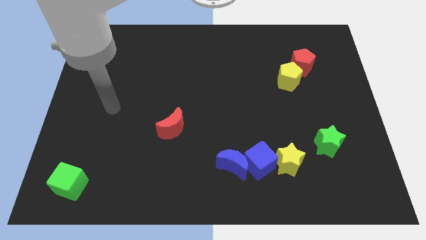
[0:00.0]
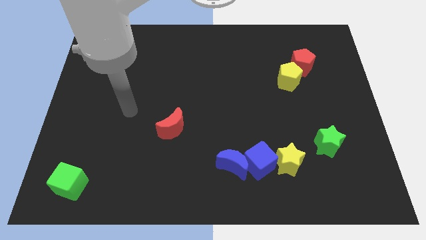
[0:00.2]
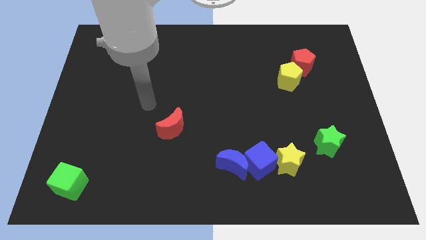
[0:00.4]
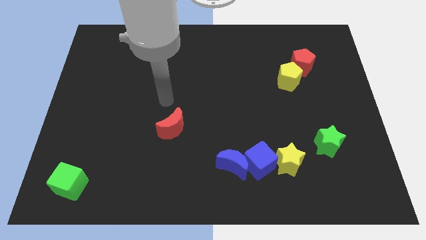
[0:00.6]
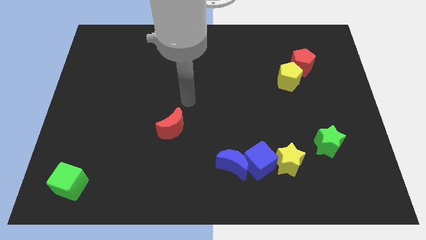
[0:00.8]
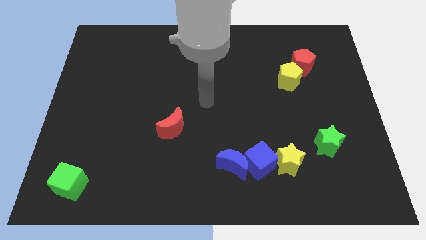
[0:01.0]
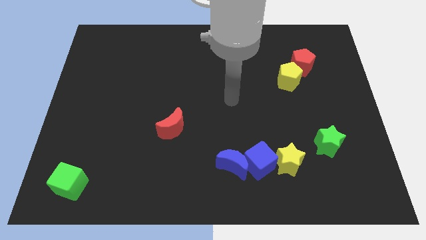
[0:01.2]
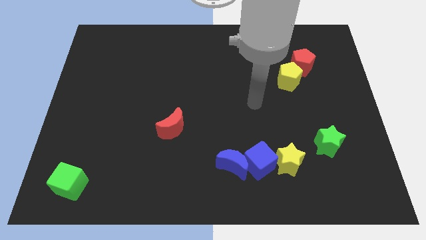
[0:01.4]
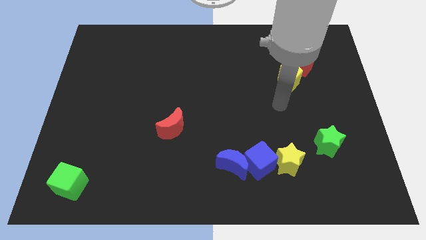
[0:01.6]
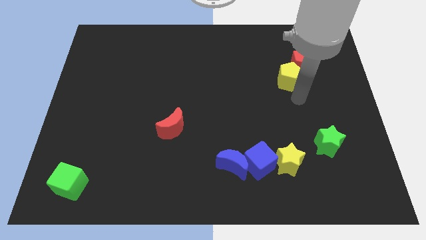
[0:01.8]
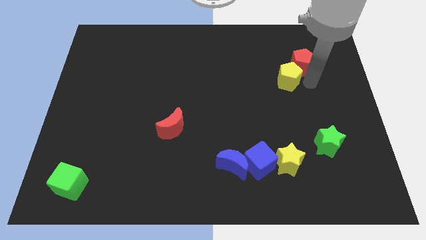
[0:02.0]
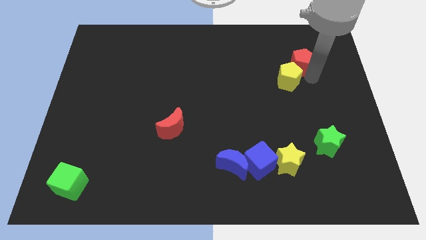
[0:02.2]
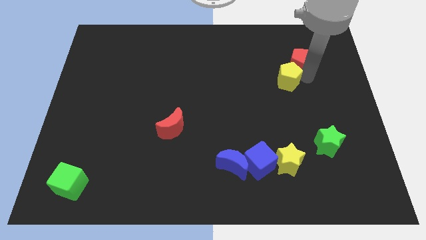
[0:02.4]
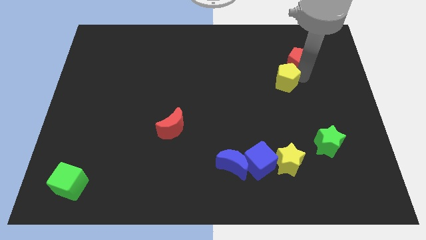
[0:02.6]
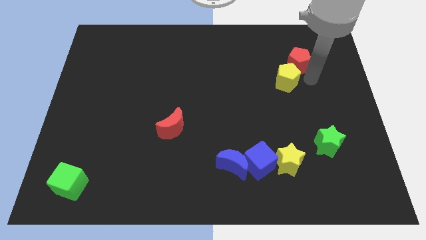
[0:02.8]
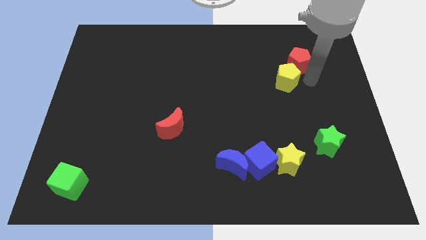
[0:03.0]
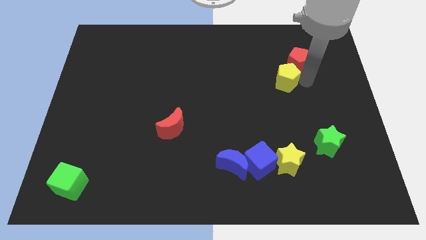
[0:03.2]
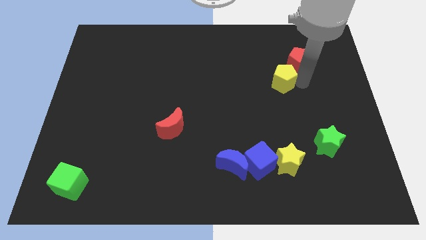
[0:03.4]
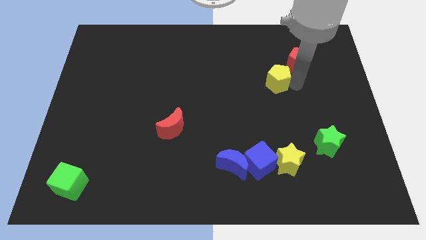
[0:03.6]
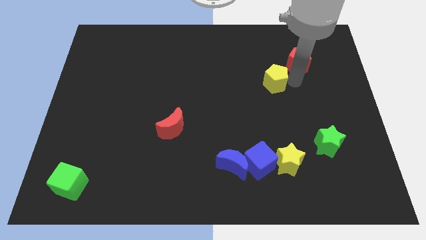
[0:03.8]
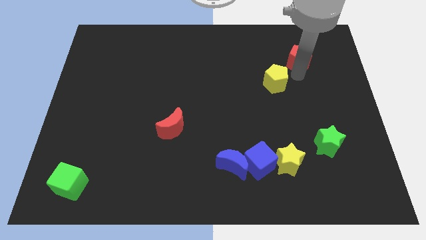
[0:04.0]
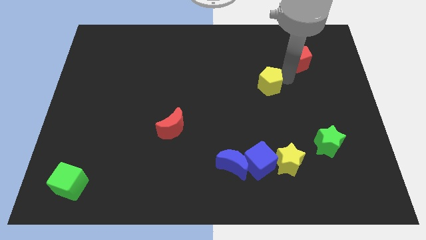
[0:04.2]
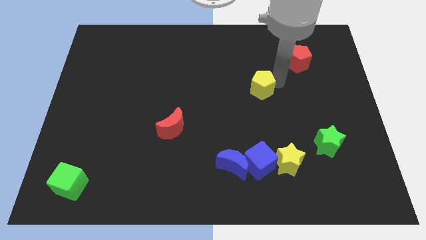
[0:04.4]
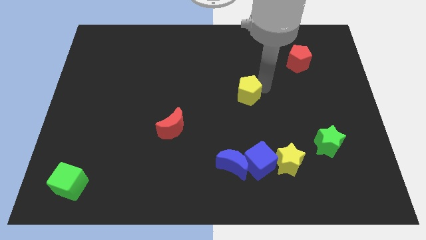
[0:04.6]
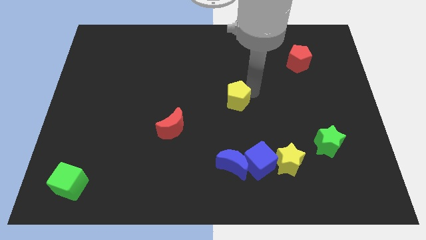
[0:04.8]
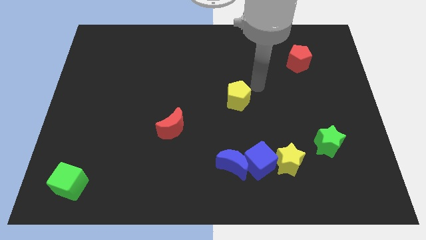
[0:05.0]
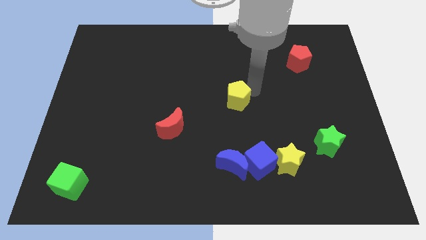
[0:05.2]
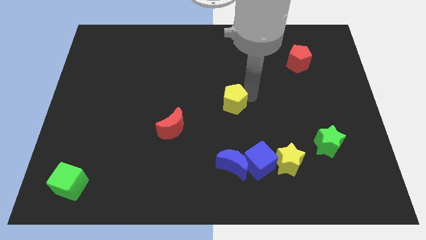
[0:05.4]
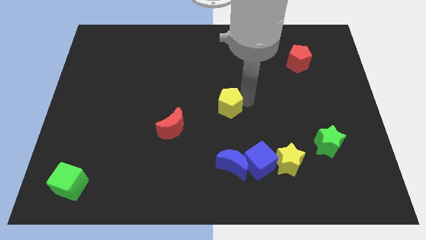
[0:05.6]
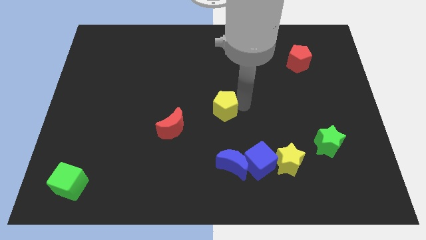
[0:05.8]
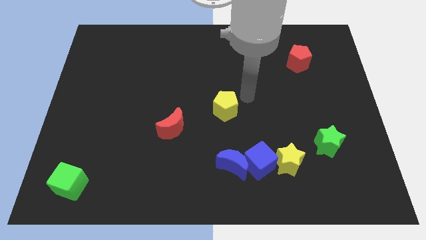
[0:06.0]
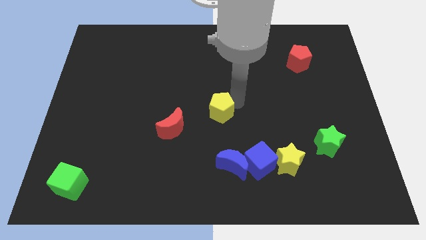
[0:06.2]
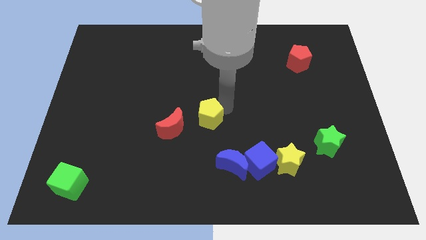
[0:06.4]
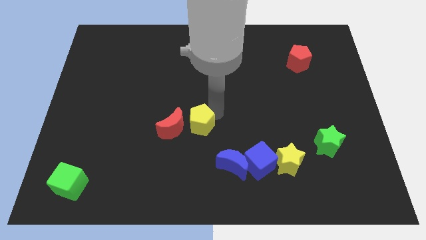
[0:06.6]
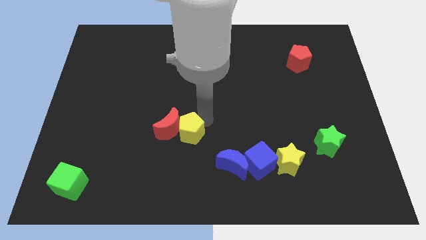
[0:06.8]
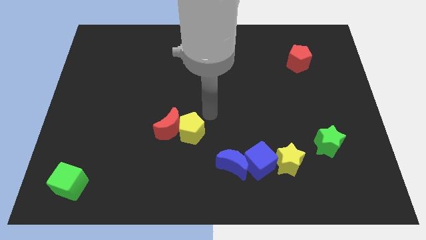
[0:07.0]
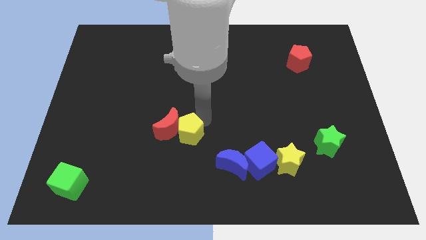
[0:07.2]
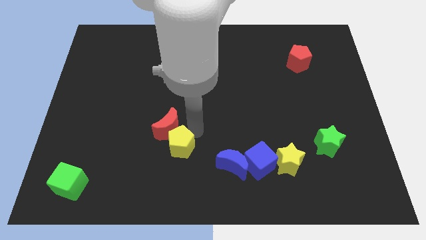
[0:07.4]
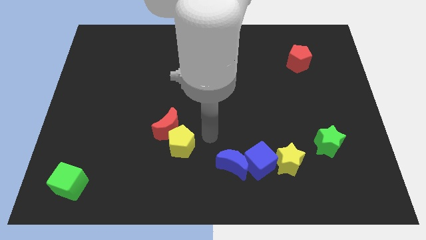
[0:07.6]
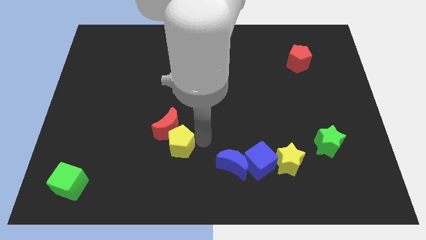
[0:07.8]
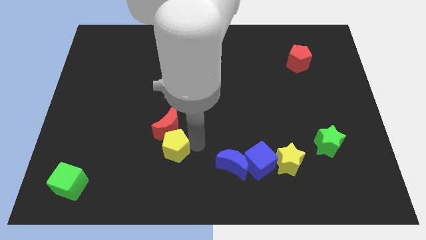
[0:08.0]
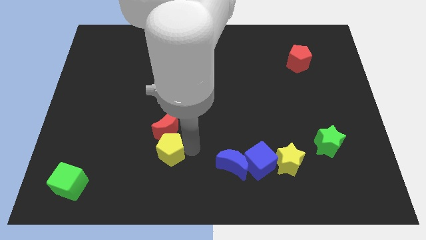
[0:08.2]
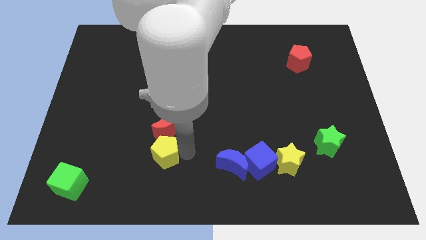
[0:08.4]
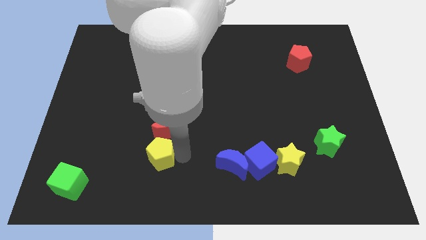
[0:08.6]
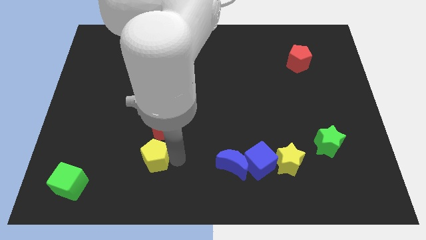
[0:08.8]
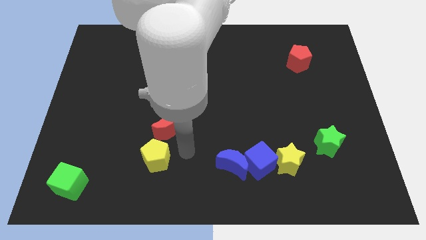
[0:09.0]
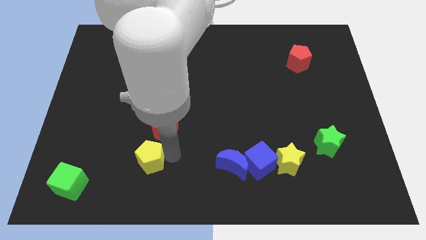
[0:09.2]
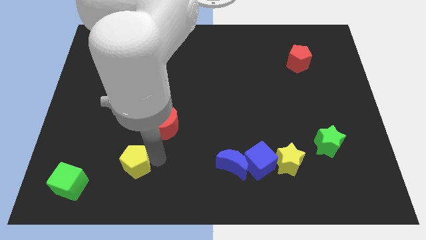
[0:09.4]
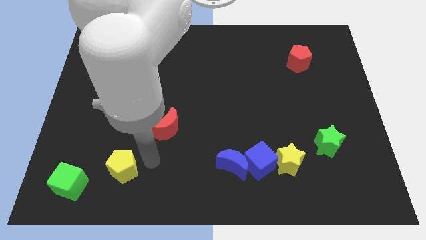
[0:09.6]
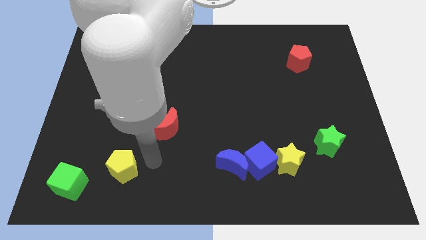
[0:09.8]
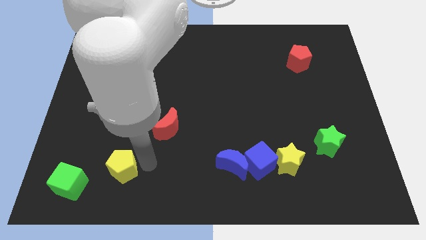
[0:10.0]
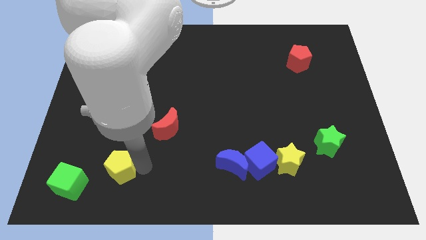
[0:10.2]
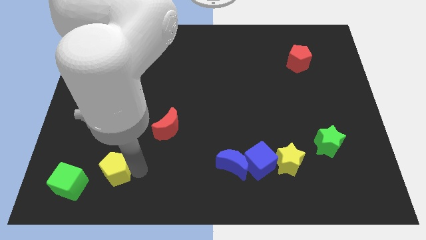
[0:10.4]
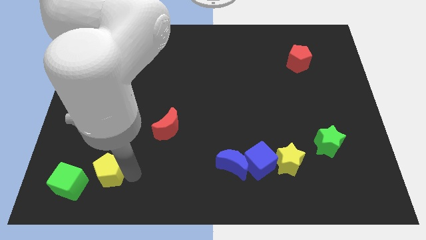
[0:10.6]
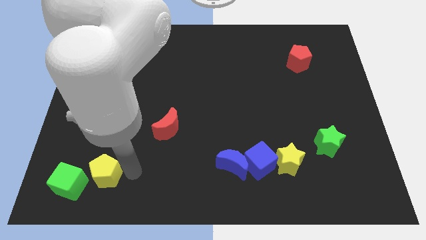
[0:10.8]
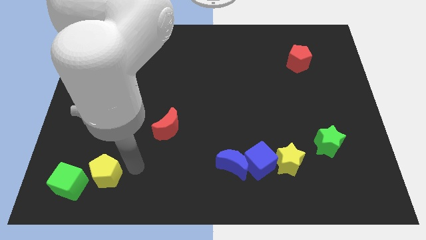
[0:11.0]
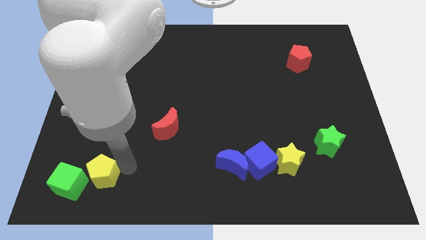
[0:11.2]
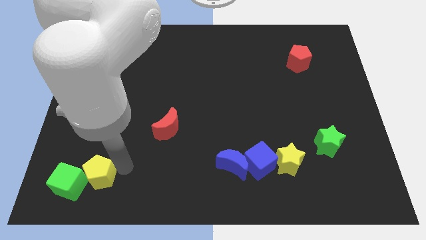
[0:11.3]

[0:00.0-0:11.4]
move the yellow pentagon to the green cube

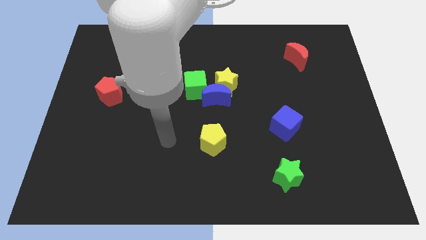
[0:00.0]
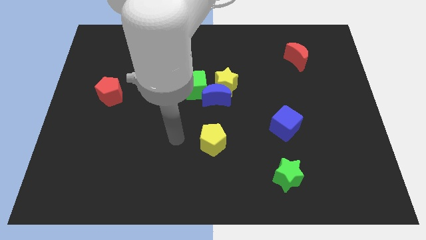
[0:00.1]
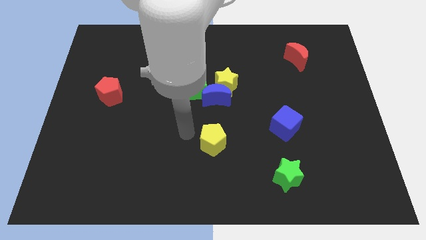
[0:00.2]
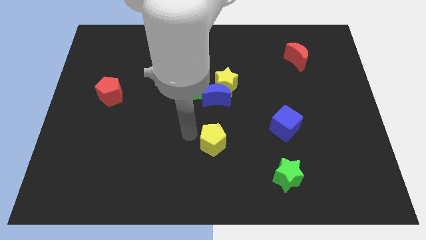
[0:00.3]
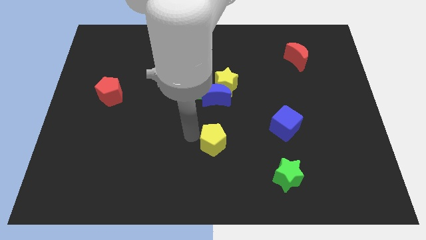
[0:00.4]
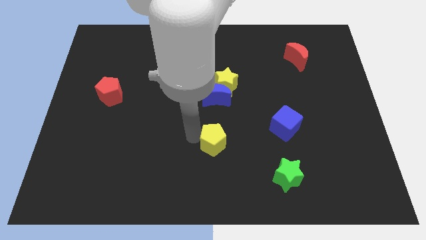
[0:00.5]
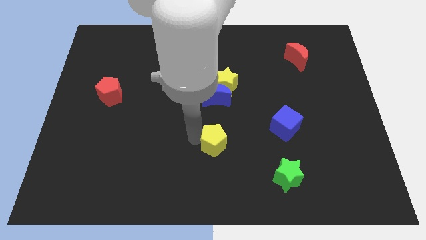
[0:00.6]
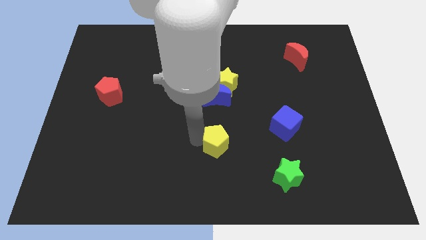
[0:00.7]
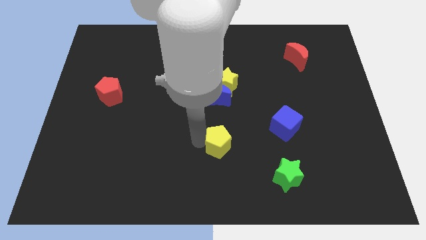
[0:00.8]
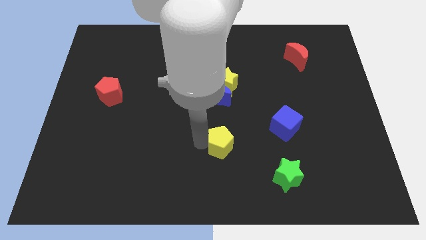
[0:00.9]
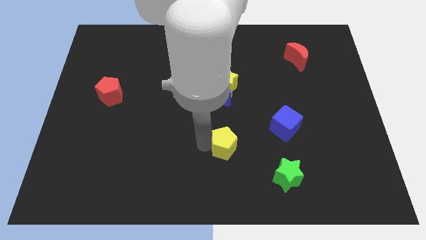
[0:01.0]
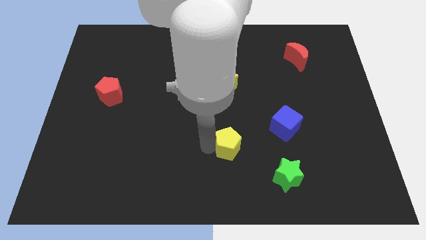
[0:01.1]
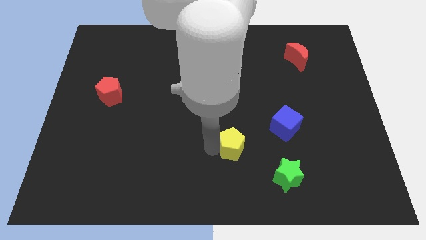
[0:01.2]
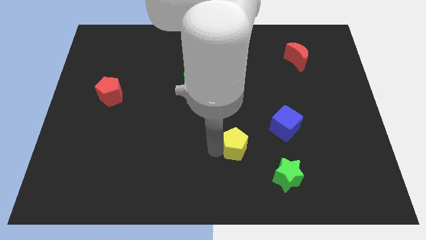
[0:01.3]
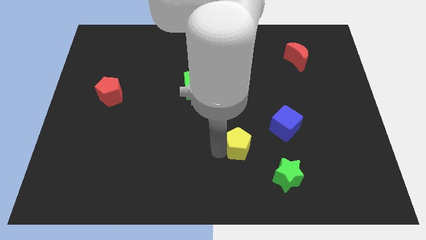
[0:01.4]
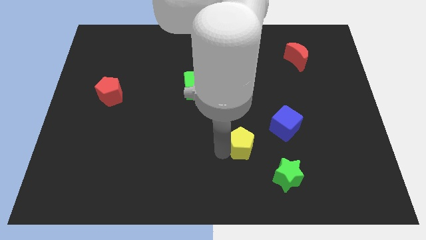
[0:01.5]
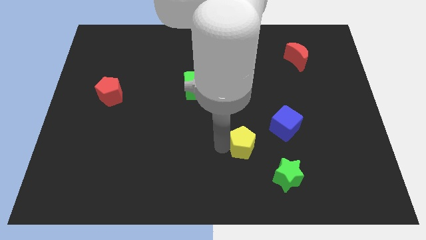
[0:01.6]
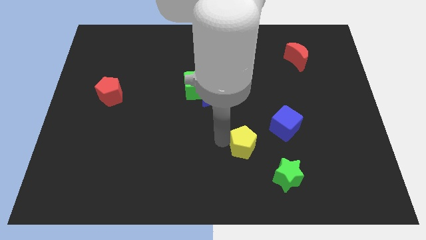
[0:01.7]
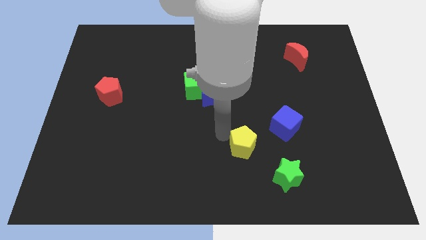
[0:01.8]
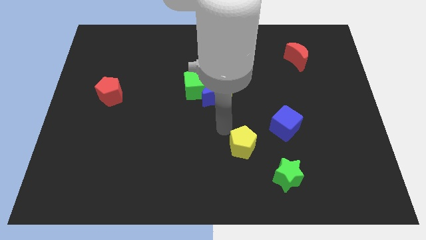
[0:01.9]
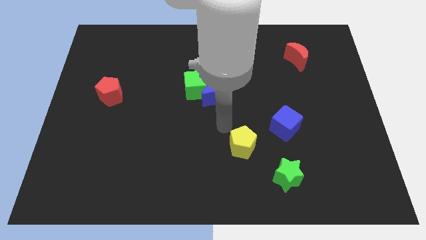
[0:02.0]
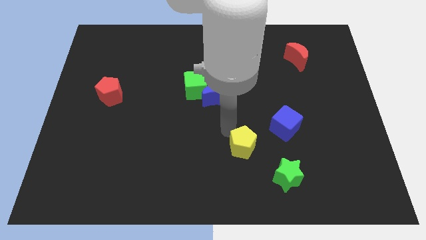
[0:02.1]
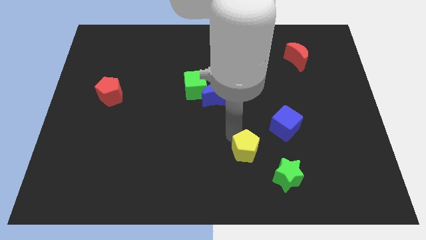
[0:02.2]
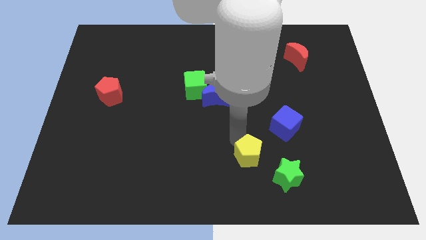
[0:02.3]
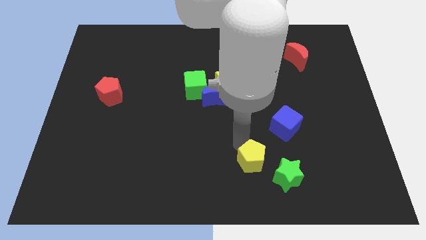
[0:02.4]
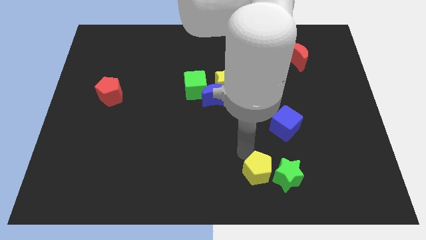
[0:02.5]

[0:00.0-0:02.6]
put the yellow pentagon close to the green star
